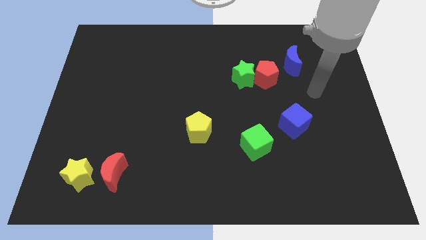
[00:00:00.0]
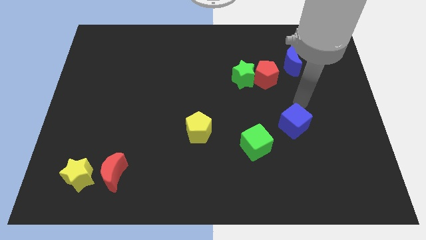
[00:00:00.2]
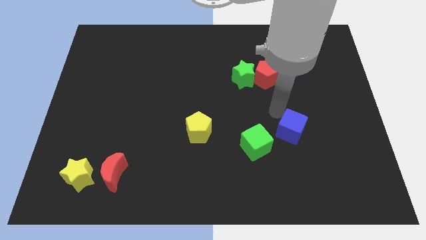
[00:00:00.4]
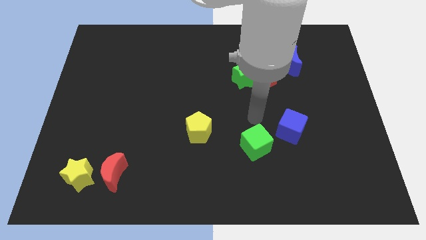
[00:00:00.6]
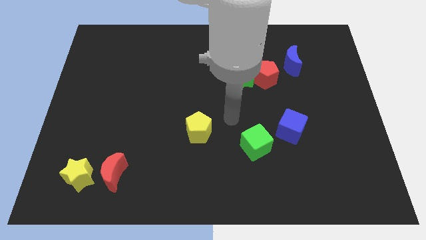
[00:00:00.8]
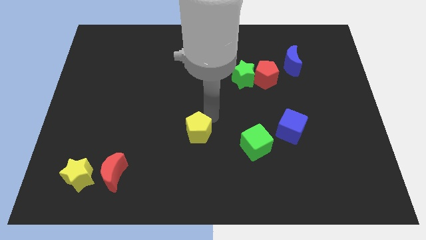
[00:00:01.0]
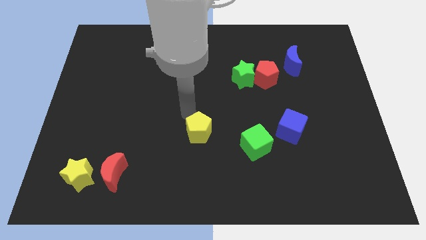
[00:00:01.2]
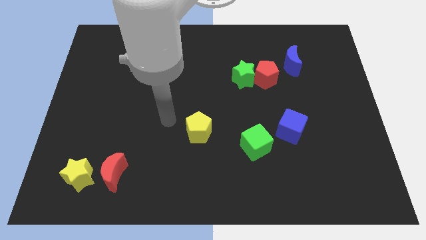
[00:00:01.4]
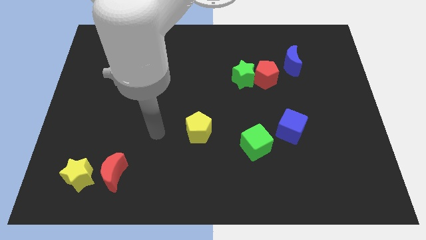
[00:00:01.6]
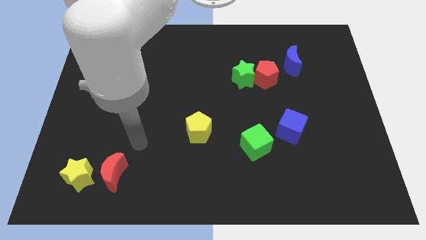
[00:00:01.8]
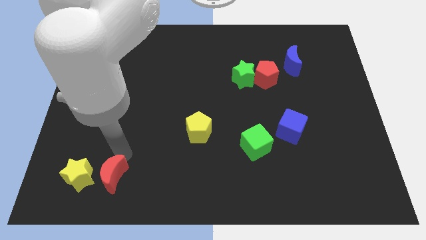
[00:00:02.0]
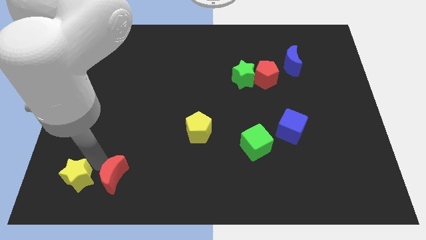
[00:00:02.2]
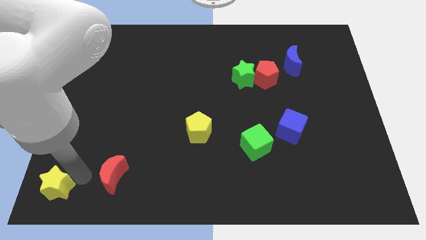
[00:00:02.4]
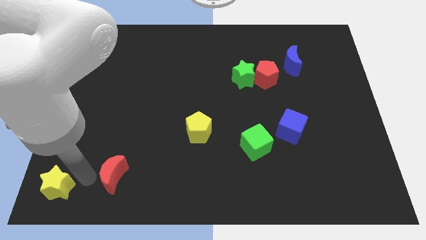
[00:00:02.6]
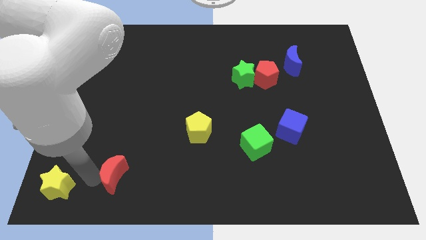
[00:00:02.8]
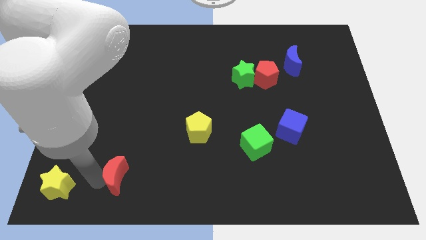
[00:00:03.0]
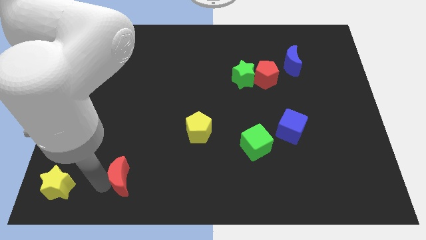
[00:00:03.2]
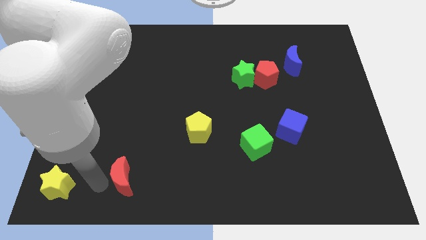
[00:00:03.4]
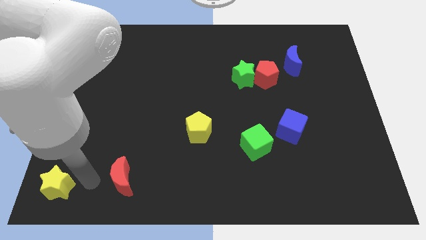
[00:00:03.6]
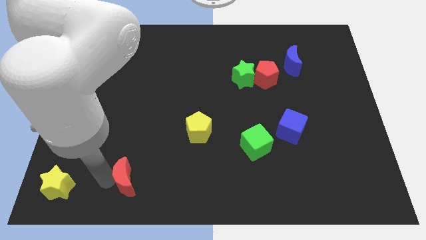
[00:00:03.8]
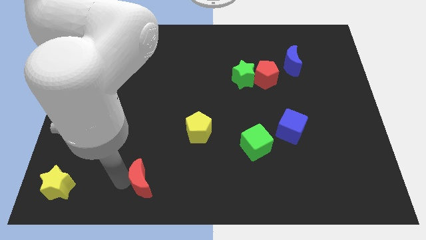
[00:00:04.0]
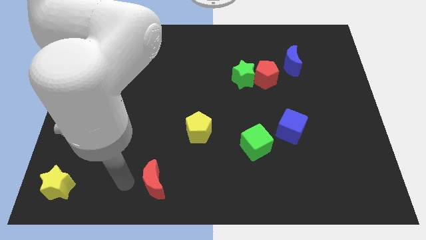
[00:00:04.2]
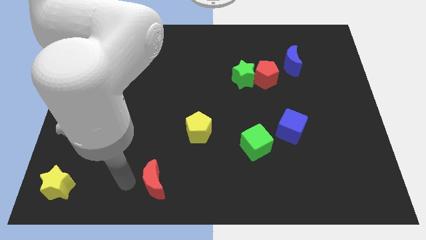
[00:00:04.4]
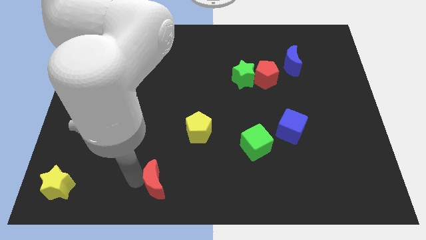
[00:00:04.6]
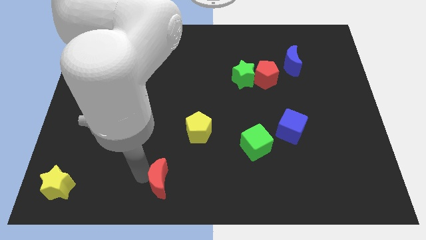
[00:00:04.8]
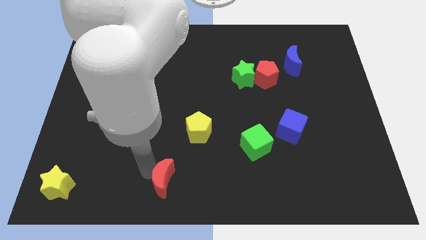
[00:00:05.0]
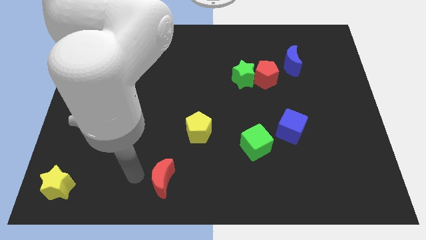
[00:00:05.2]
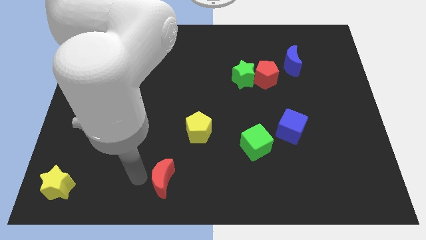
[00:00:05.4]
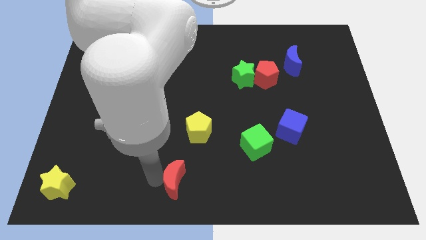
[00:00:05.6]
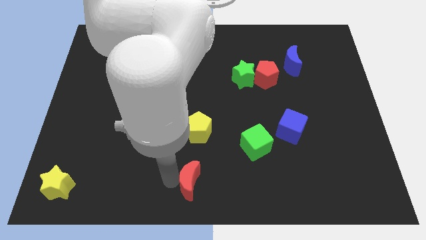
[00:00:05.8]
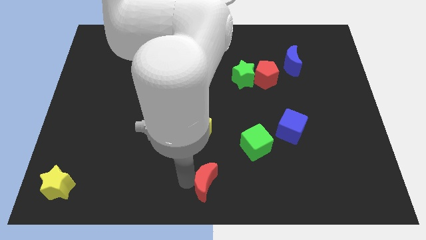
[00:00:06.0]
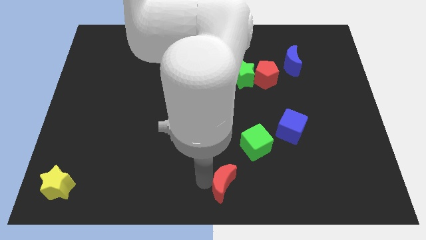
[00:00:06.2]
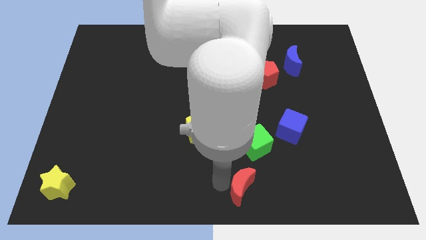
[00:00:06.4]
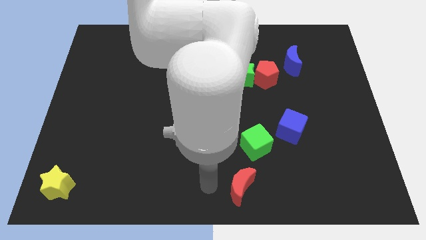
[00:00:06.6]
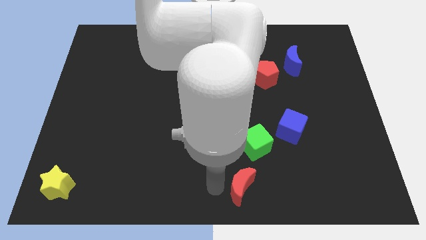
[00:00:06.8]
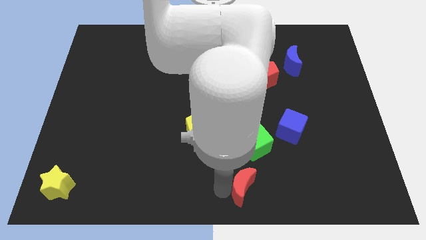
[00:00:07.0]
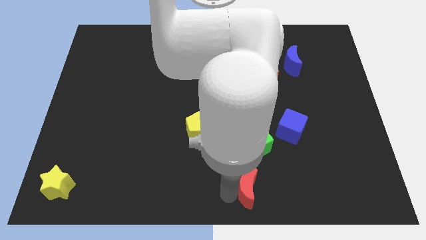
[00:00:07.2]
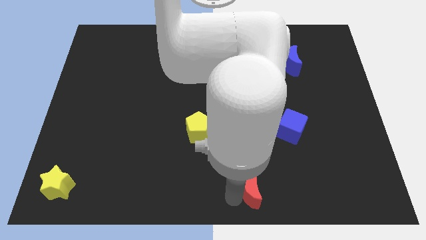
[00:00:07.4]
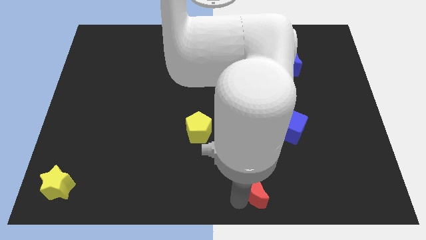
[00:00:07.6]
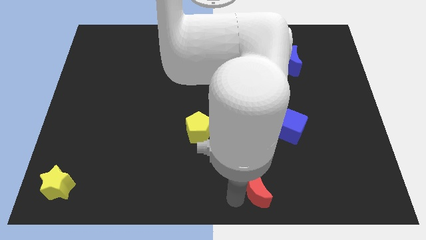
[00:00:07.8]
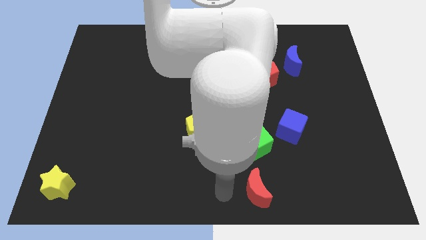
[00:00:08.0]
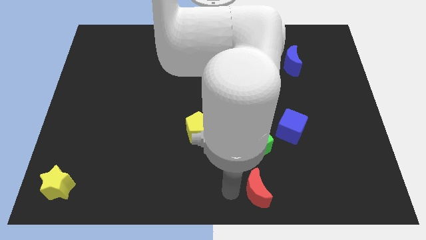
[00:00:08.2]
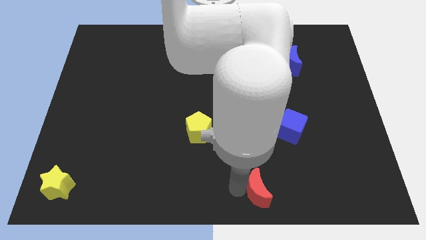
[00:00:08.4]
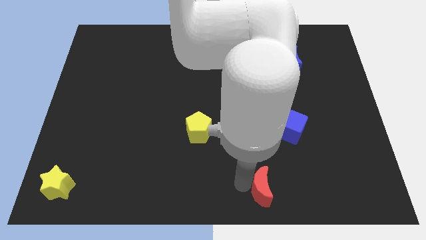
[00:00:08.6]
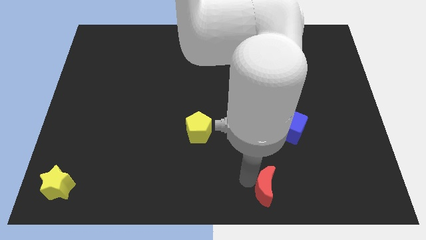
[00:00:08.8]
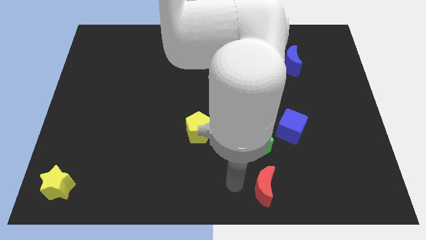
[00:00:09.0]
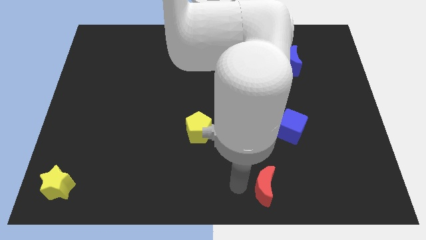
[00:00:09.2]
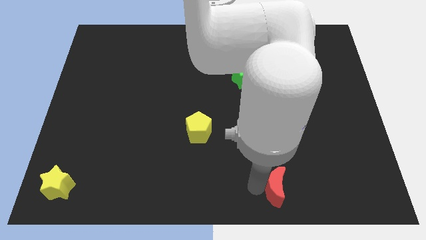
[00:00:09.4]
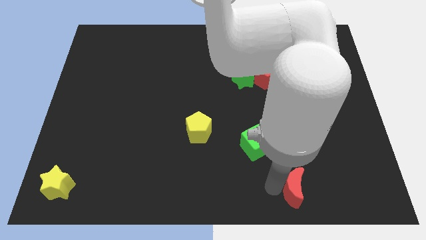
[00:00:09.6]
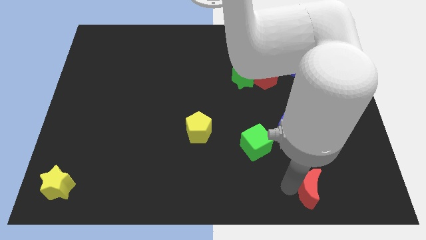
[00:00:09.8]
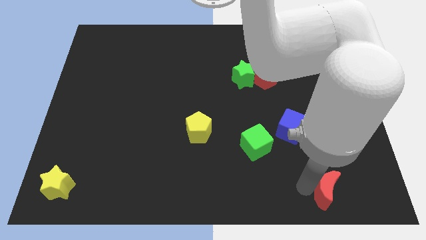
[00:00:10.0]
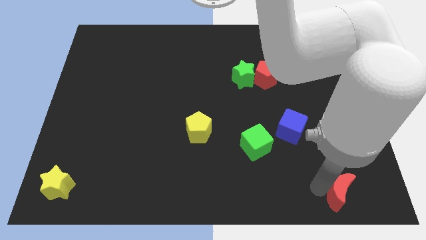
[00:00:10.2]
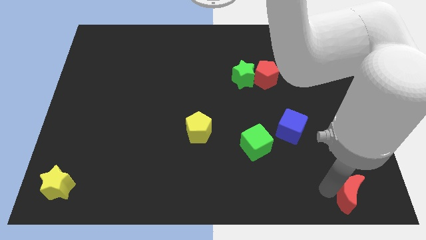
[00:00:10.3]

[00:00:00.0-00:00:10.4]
move the red moon to the bottom right

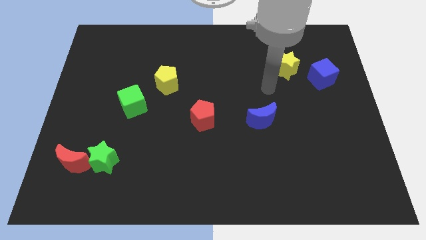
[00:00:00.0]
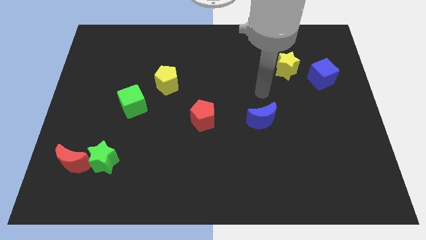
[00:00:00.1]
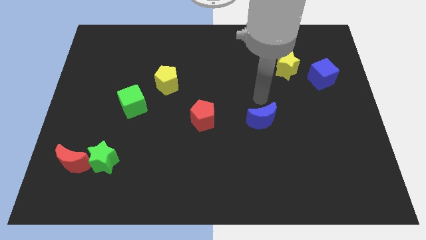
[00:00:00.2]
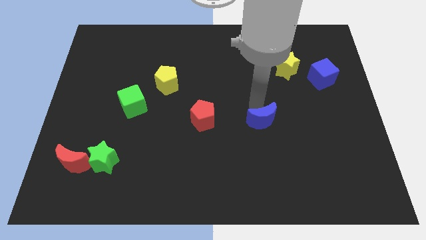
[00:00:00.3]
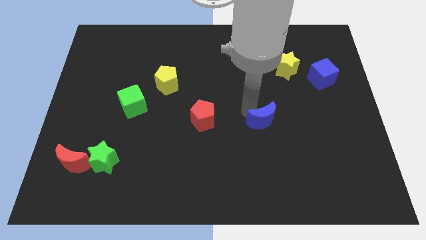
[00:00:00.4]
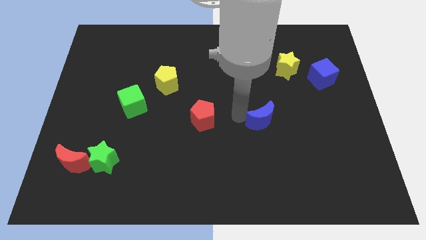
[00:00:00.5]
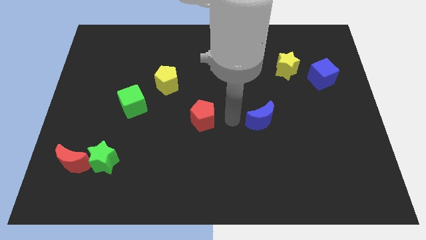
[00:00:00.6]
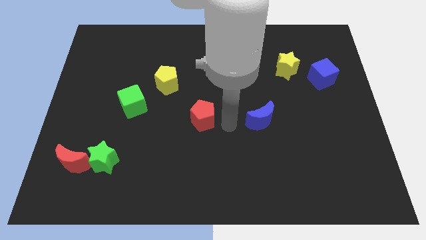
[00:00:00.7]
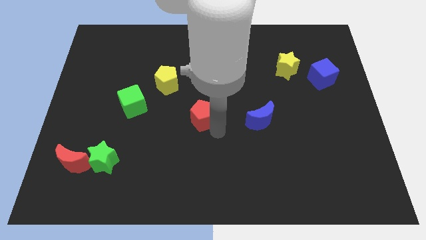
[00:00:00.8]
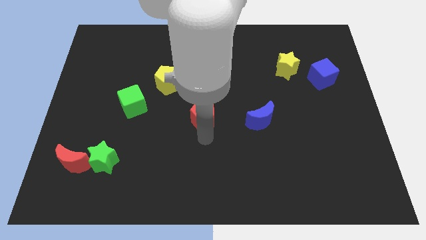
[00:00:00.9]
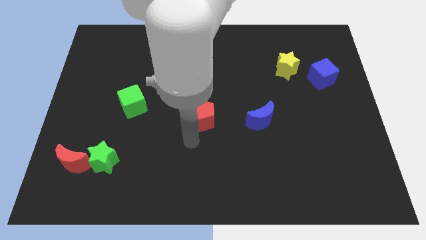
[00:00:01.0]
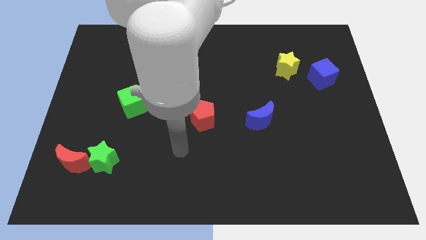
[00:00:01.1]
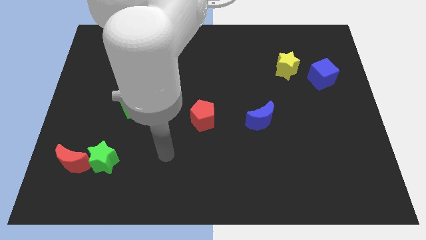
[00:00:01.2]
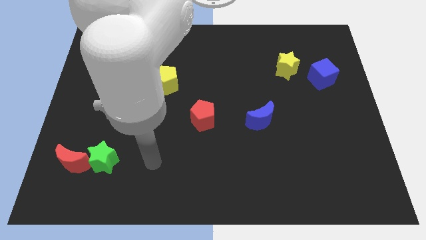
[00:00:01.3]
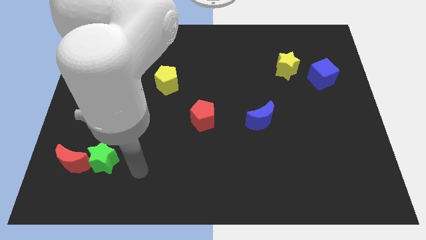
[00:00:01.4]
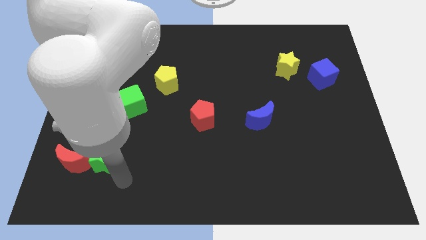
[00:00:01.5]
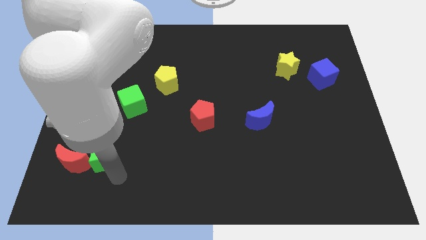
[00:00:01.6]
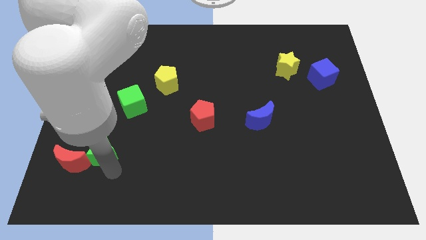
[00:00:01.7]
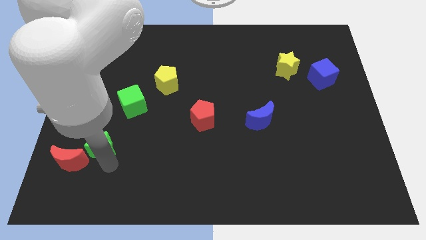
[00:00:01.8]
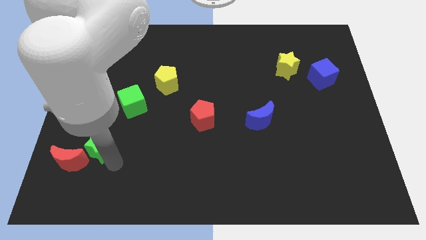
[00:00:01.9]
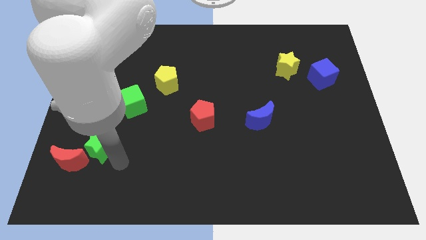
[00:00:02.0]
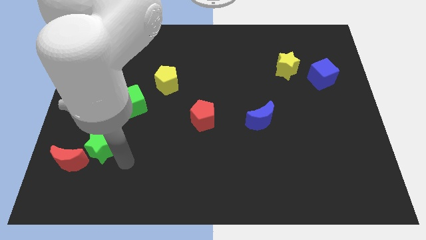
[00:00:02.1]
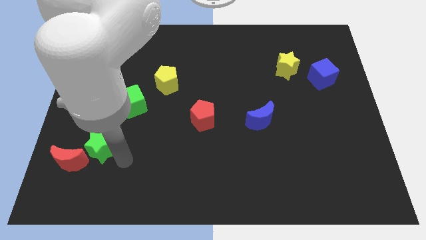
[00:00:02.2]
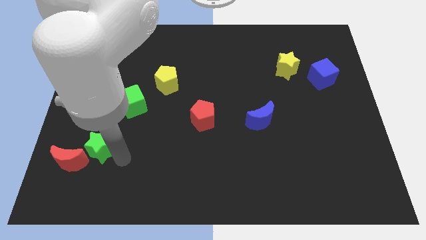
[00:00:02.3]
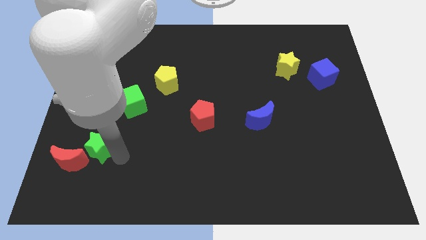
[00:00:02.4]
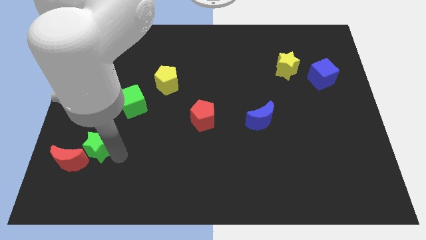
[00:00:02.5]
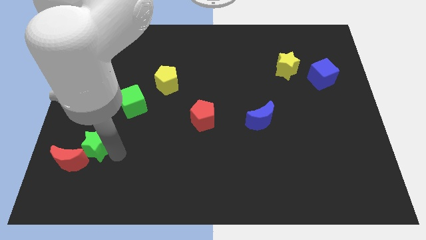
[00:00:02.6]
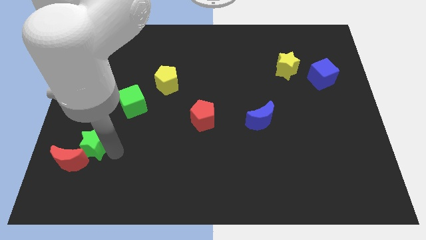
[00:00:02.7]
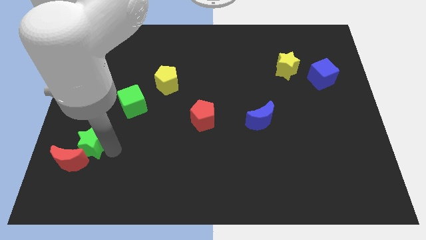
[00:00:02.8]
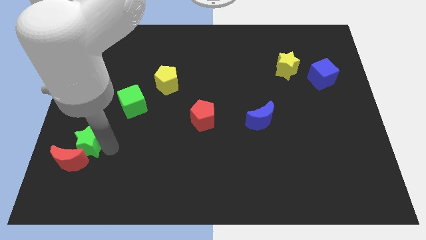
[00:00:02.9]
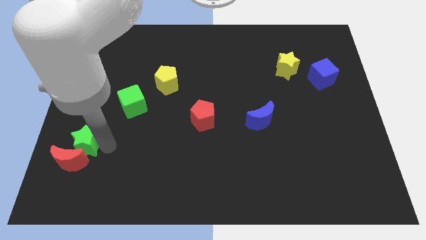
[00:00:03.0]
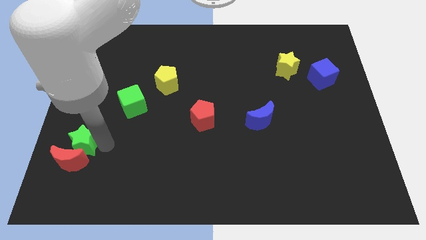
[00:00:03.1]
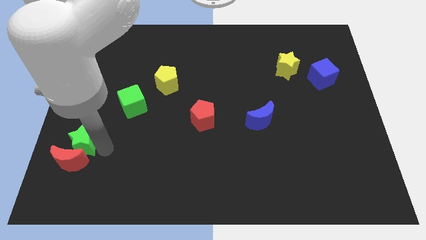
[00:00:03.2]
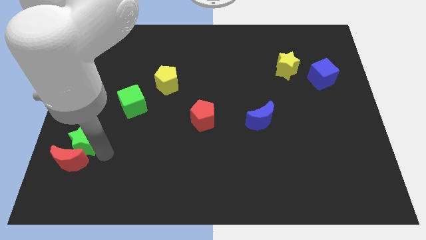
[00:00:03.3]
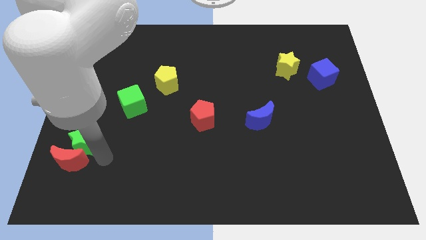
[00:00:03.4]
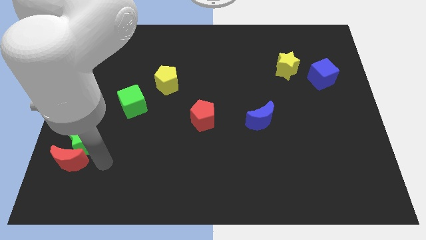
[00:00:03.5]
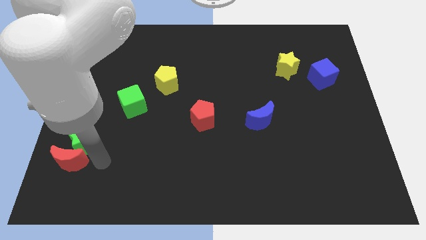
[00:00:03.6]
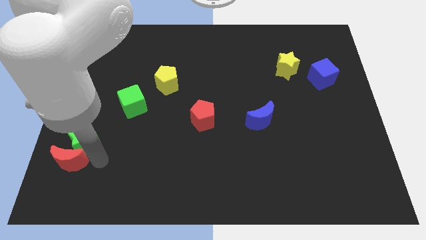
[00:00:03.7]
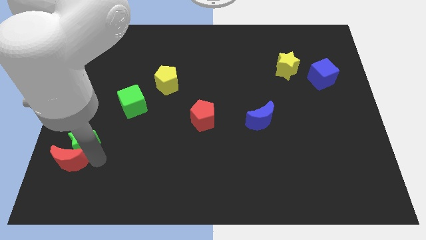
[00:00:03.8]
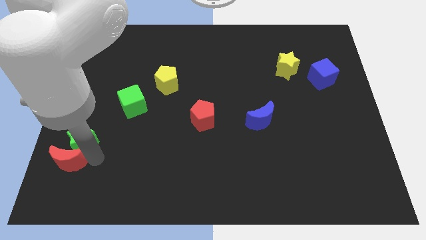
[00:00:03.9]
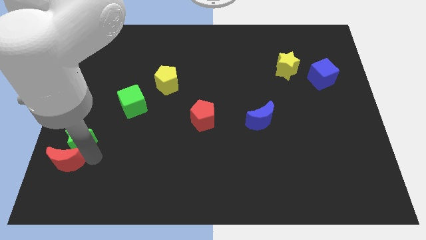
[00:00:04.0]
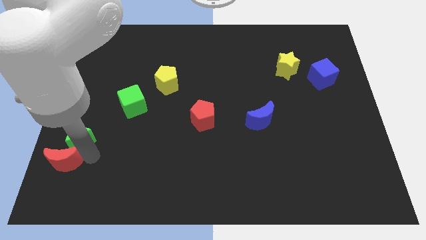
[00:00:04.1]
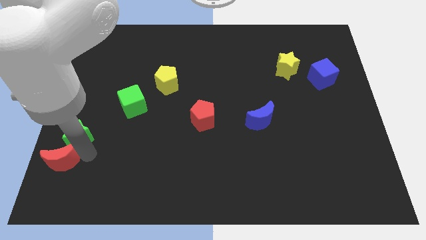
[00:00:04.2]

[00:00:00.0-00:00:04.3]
slide the green star to the left side
